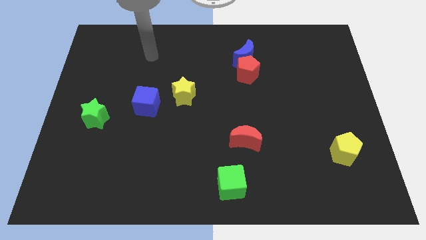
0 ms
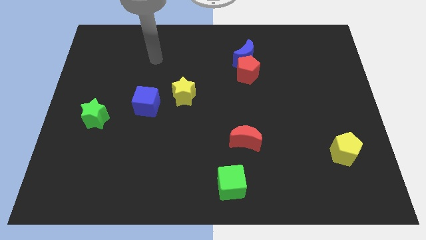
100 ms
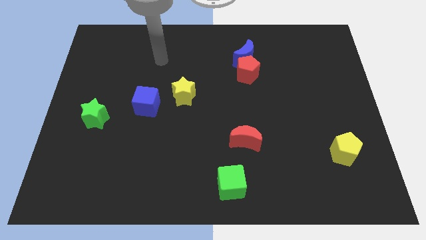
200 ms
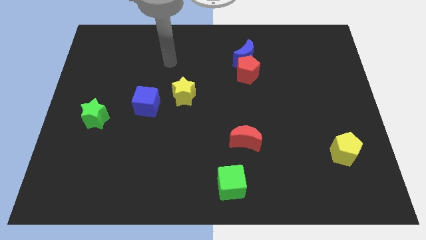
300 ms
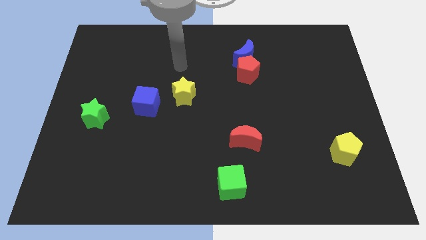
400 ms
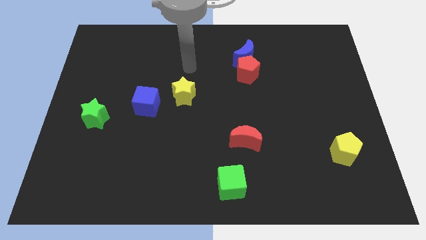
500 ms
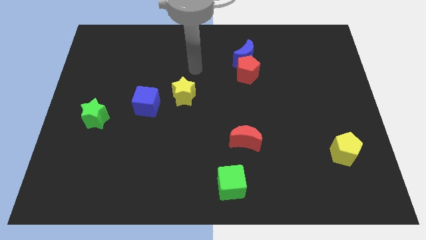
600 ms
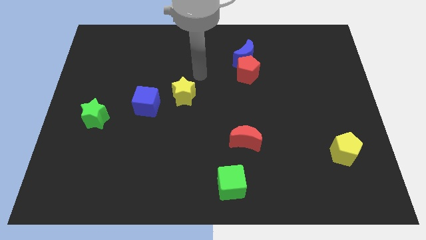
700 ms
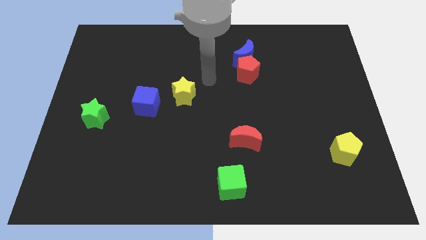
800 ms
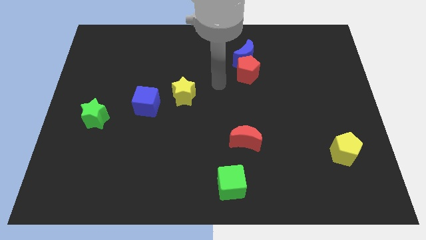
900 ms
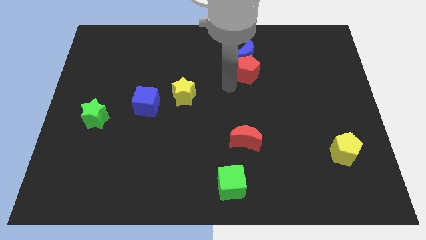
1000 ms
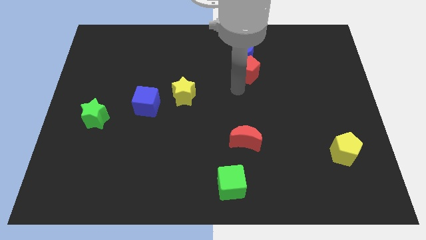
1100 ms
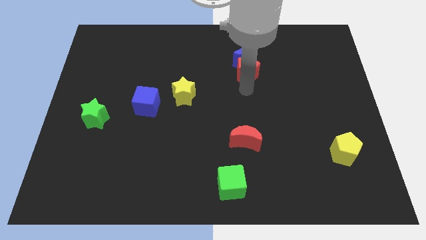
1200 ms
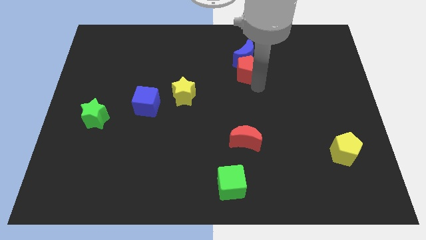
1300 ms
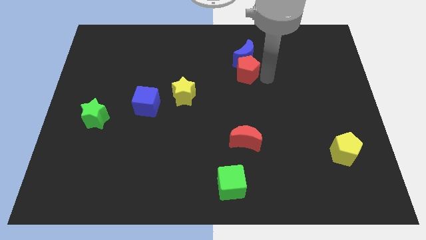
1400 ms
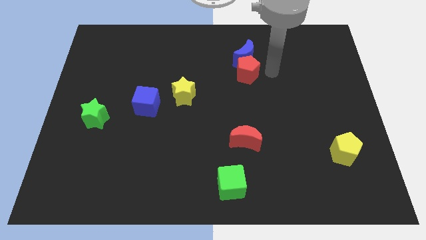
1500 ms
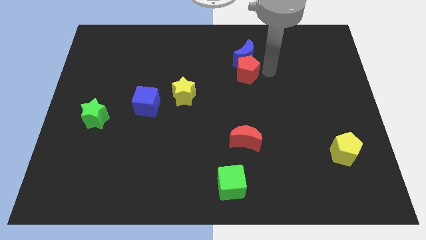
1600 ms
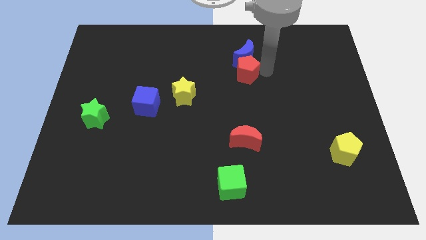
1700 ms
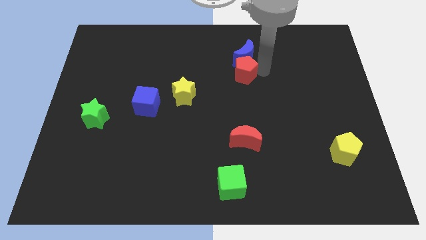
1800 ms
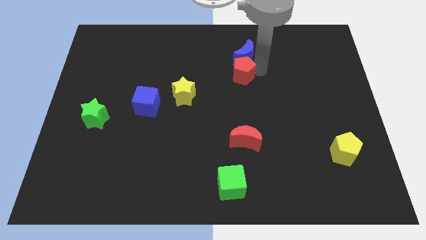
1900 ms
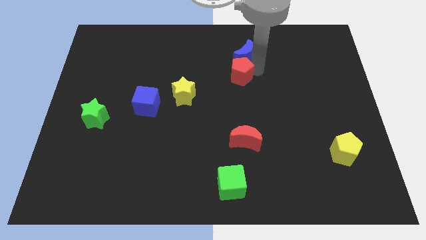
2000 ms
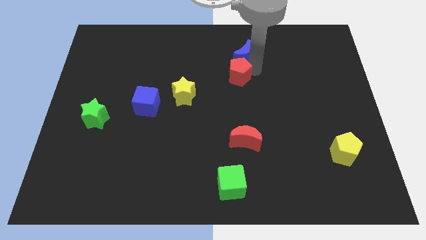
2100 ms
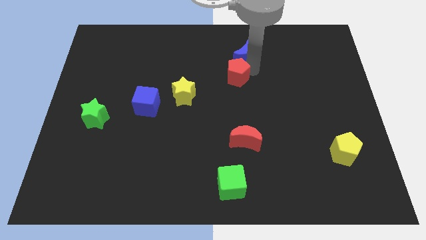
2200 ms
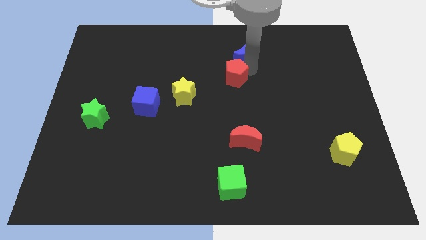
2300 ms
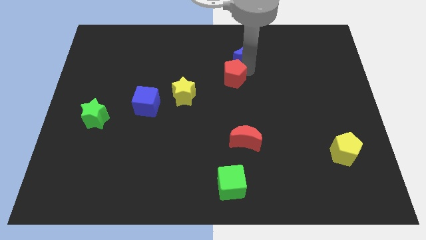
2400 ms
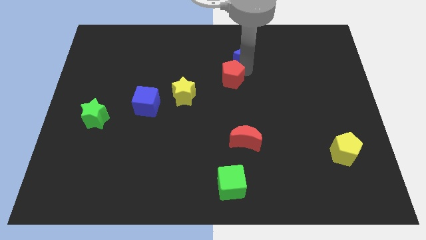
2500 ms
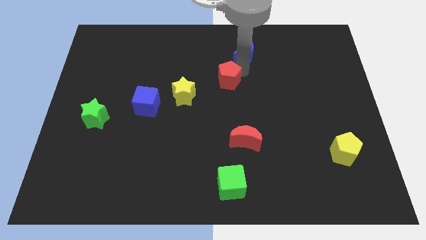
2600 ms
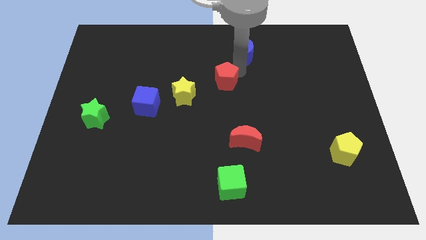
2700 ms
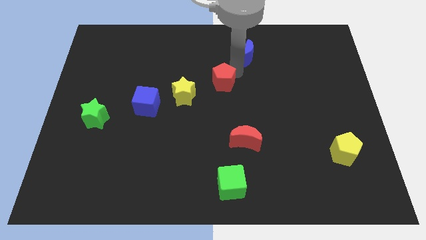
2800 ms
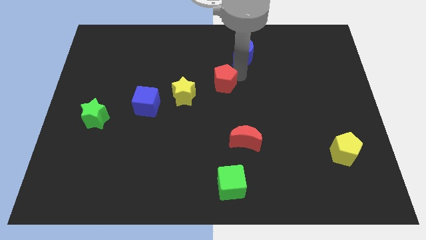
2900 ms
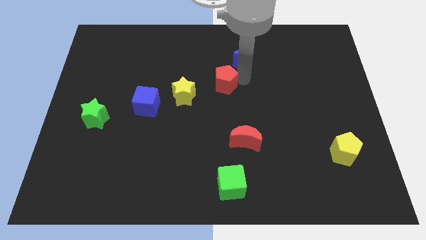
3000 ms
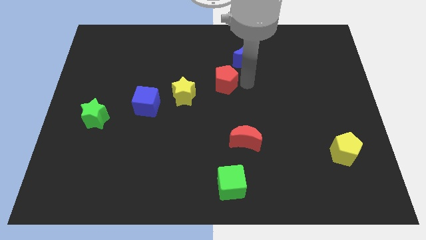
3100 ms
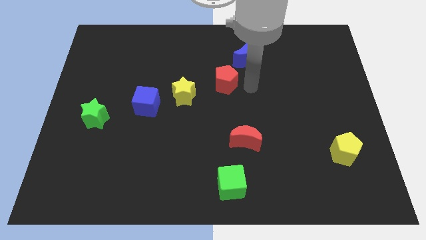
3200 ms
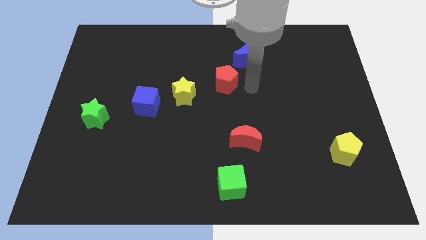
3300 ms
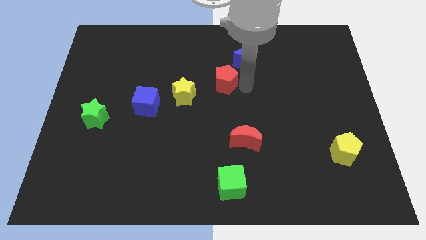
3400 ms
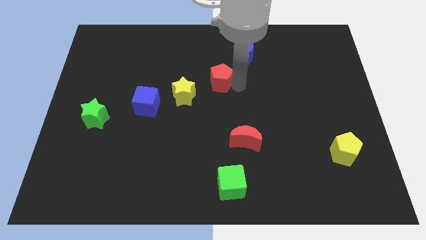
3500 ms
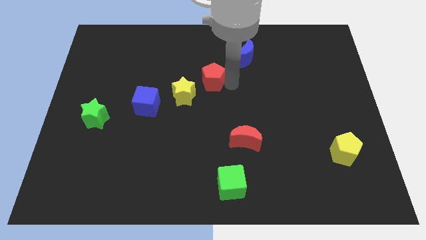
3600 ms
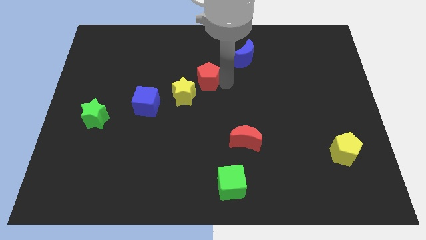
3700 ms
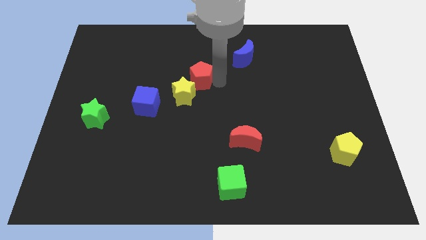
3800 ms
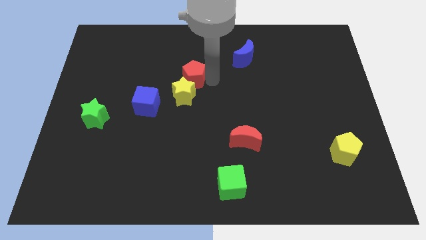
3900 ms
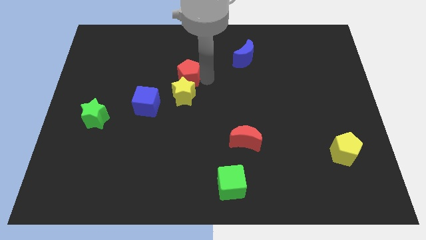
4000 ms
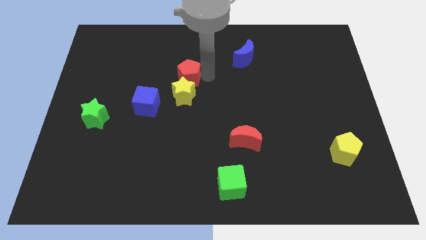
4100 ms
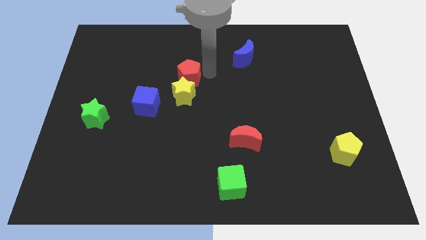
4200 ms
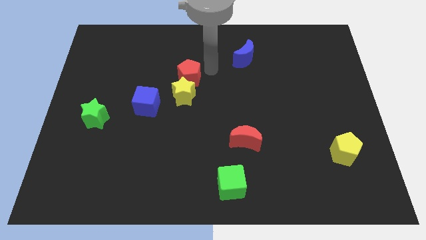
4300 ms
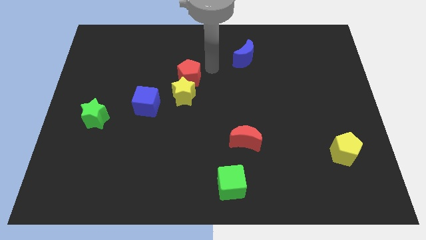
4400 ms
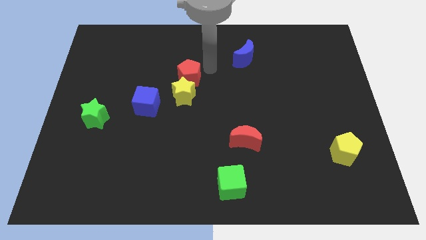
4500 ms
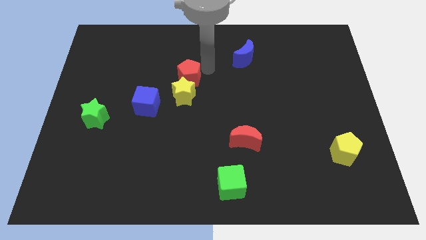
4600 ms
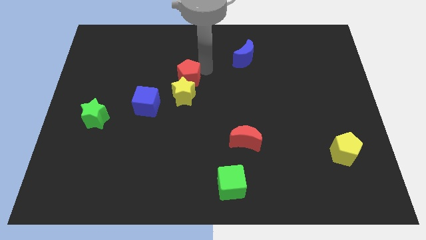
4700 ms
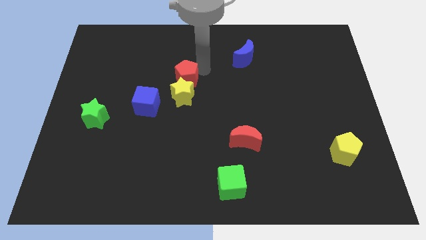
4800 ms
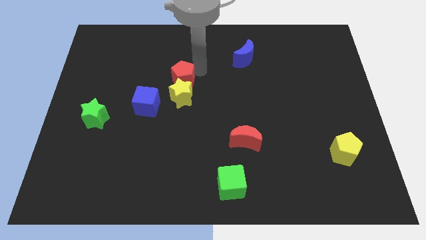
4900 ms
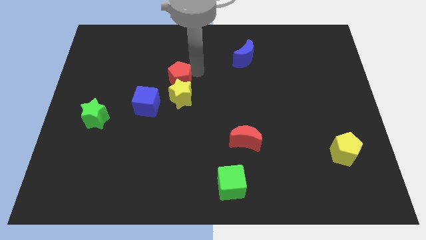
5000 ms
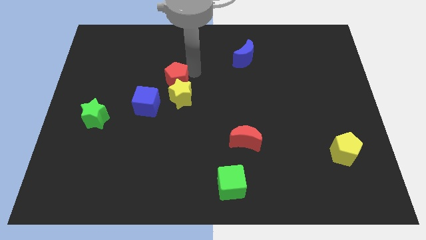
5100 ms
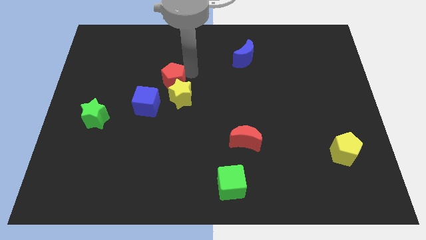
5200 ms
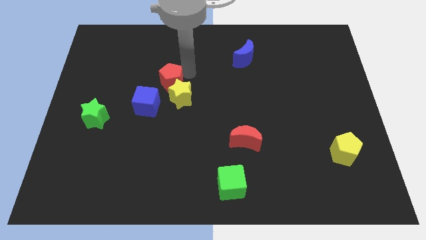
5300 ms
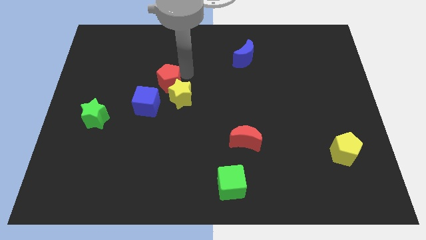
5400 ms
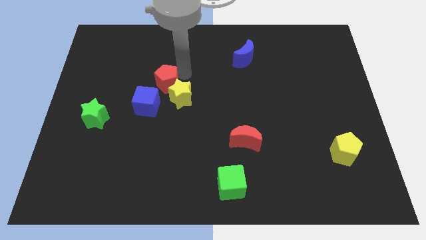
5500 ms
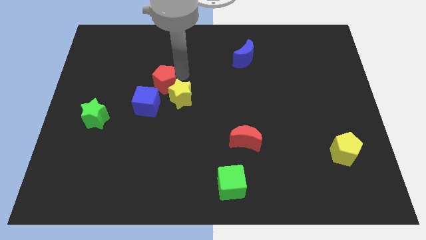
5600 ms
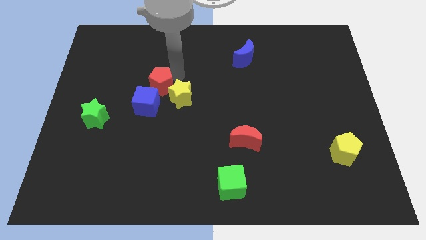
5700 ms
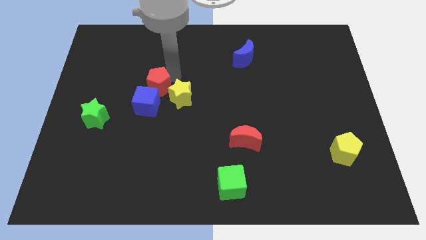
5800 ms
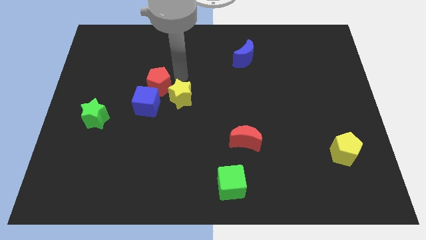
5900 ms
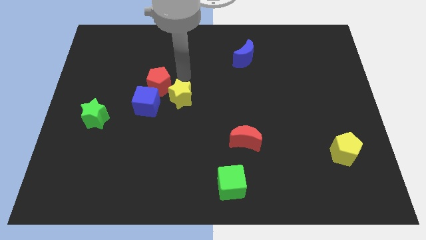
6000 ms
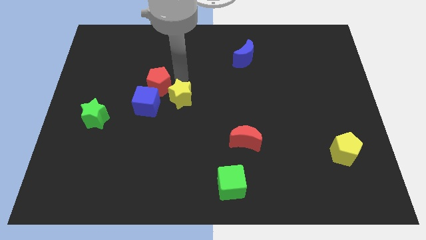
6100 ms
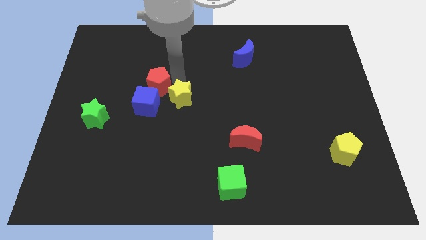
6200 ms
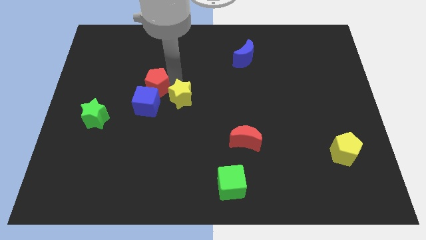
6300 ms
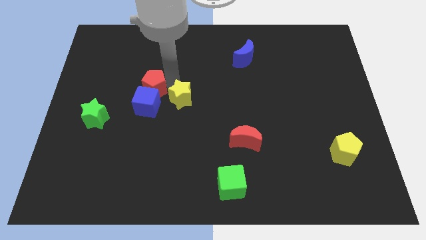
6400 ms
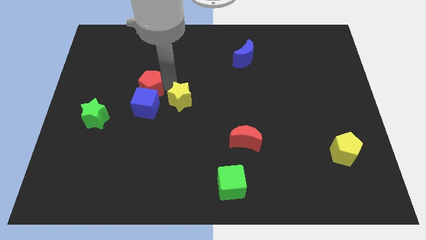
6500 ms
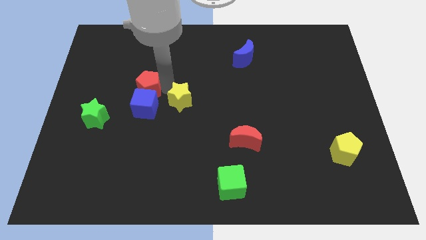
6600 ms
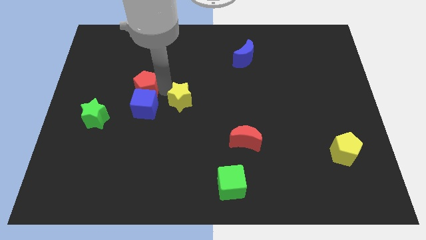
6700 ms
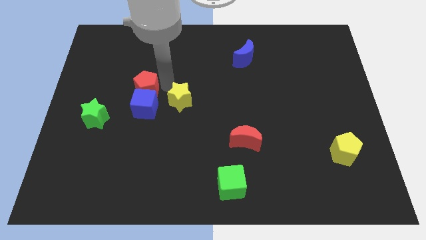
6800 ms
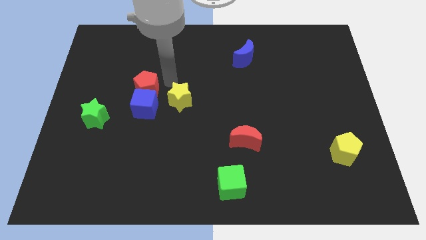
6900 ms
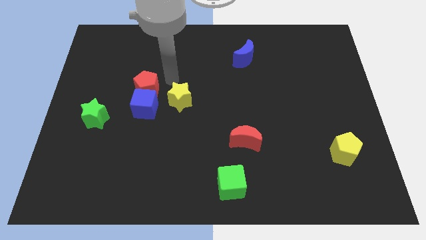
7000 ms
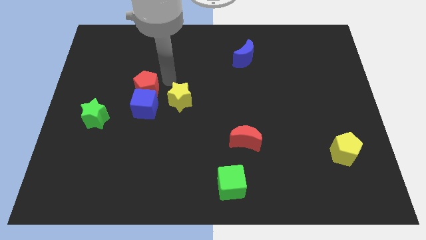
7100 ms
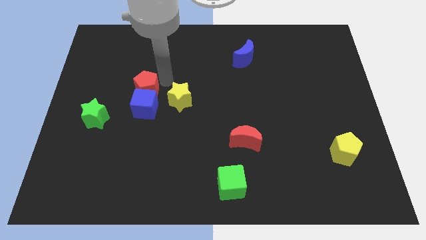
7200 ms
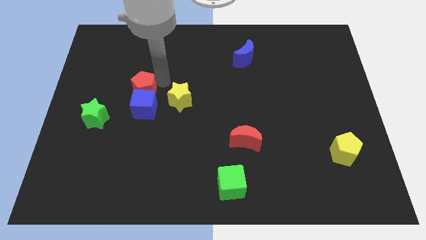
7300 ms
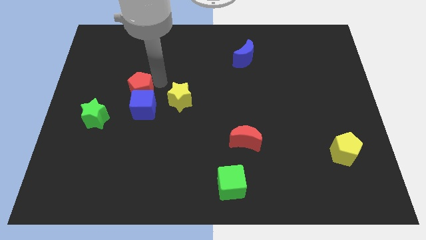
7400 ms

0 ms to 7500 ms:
push the red pentagon to the top right of the green star
